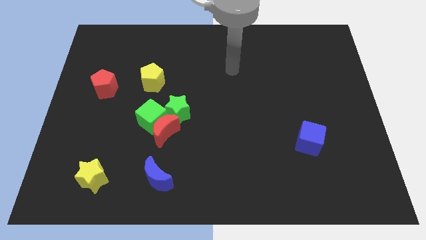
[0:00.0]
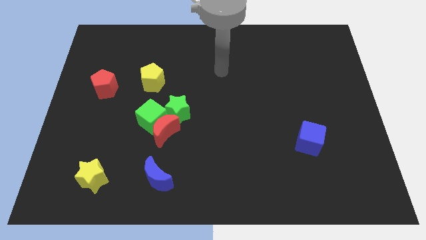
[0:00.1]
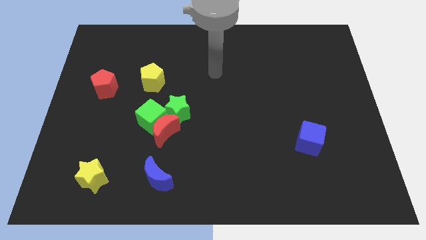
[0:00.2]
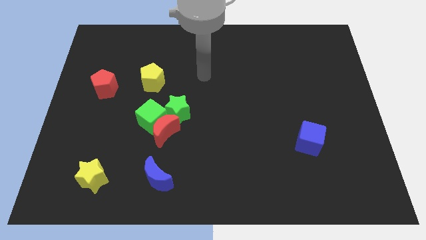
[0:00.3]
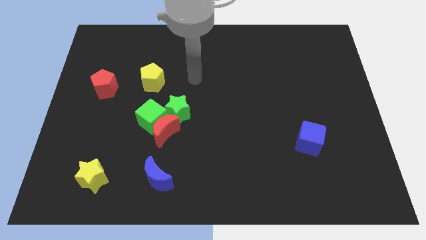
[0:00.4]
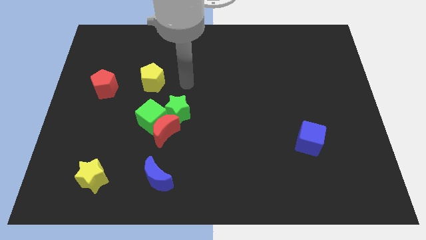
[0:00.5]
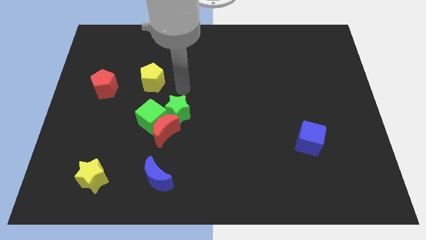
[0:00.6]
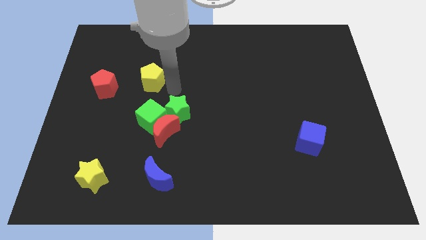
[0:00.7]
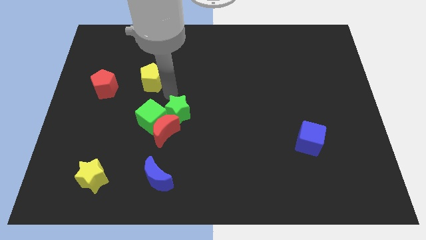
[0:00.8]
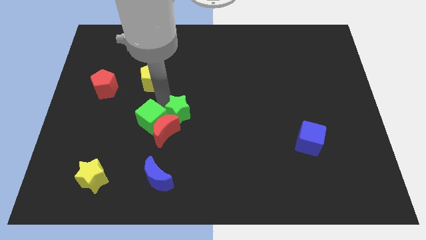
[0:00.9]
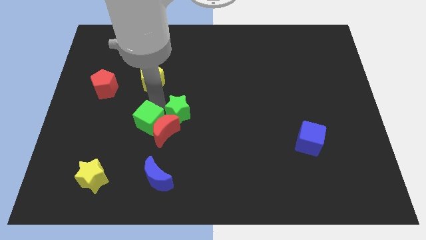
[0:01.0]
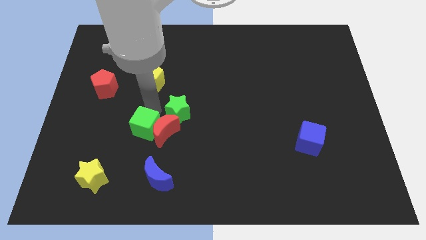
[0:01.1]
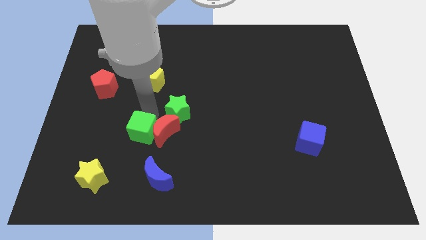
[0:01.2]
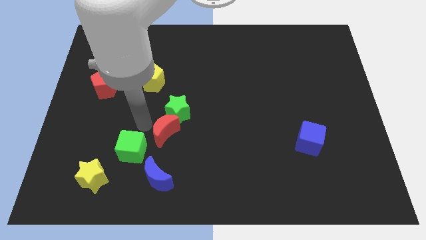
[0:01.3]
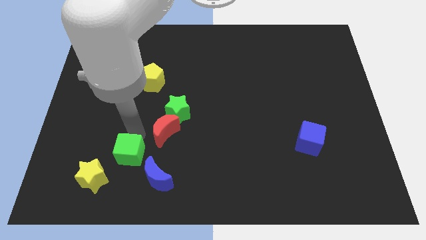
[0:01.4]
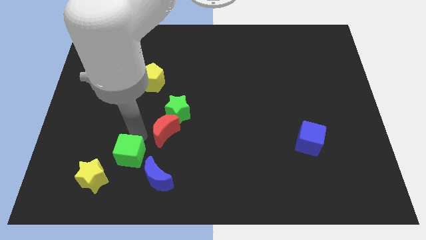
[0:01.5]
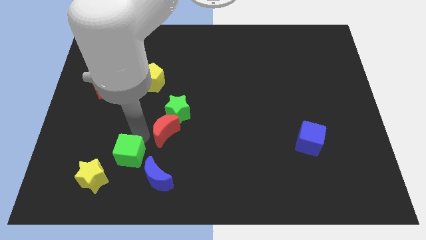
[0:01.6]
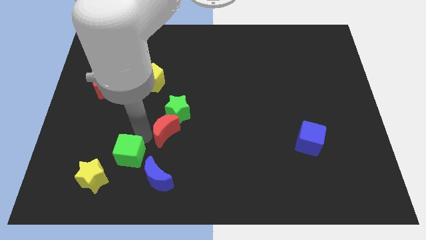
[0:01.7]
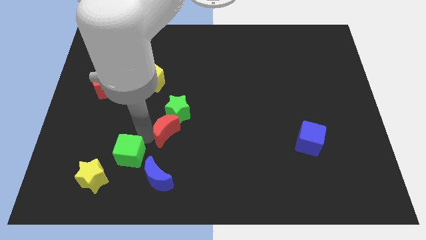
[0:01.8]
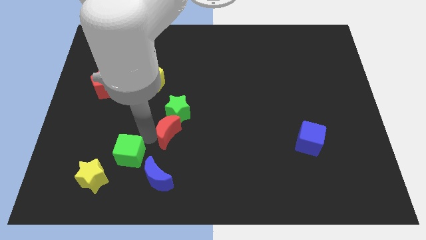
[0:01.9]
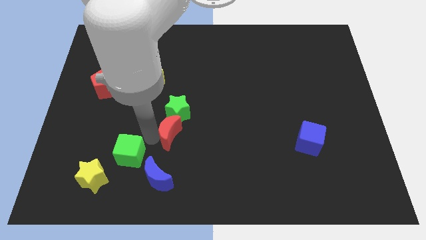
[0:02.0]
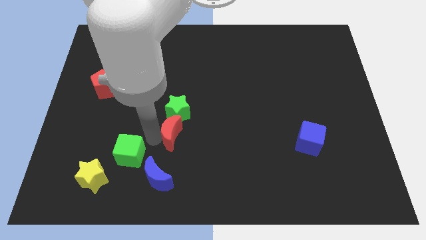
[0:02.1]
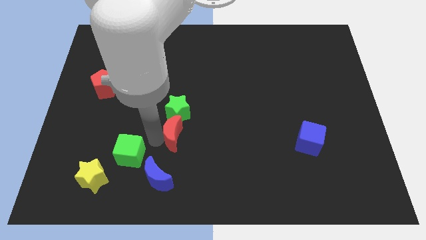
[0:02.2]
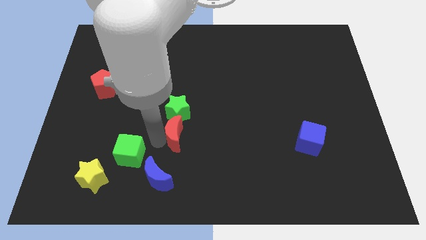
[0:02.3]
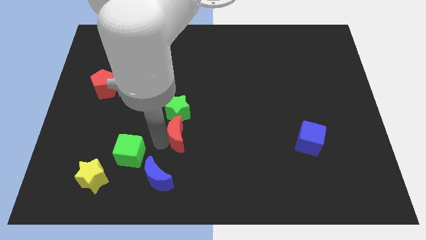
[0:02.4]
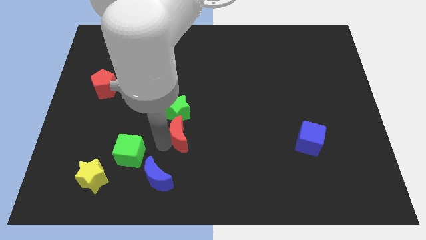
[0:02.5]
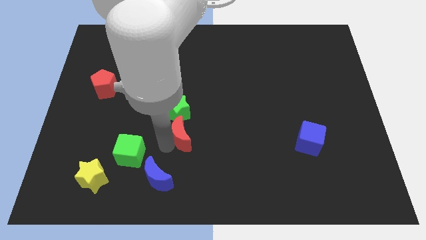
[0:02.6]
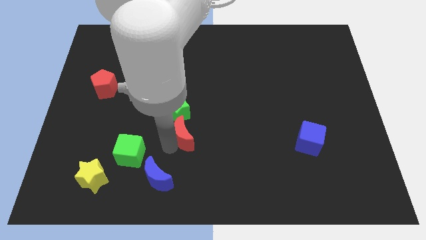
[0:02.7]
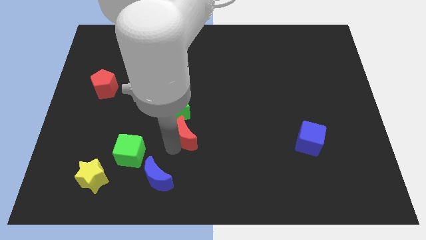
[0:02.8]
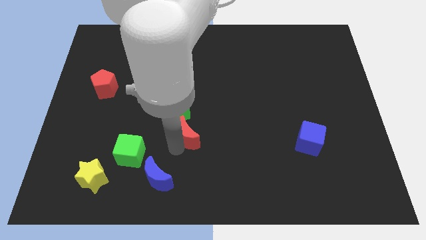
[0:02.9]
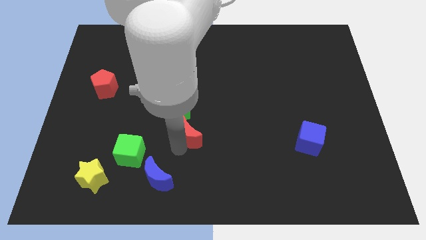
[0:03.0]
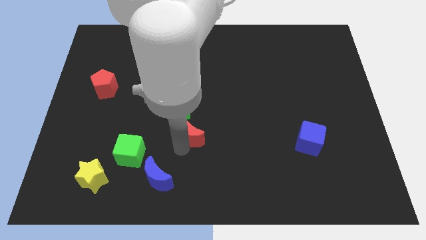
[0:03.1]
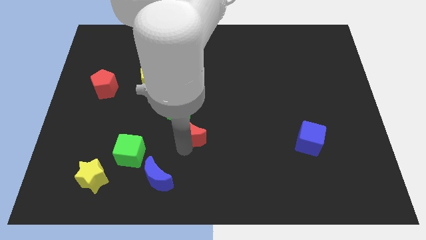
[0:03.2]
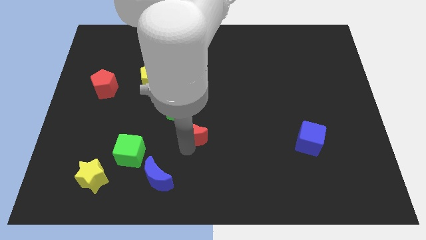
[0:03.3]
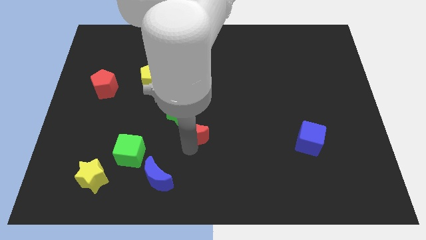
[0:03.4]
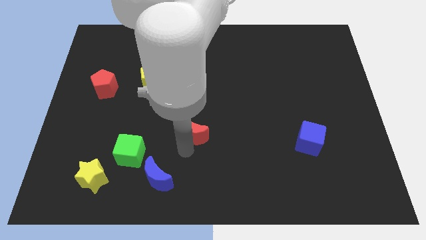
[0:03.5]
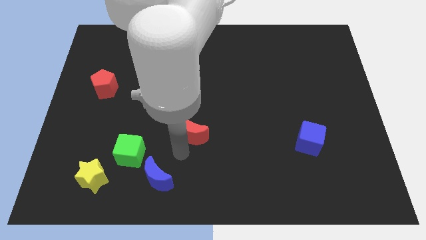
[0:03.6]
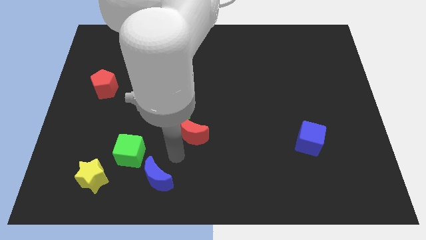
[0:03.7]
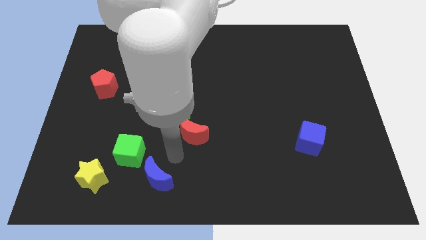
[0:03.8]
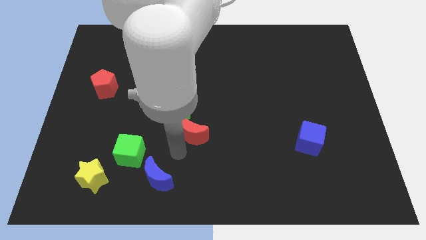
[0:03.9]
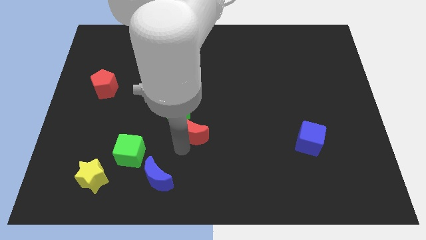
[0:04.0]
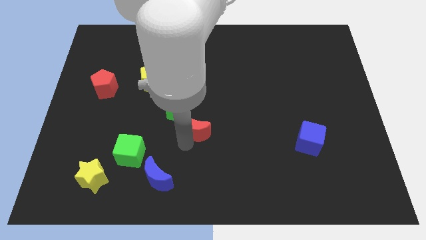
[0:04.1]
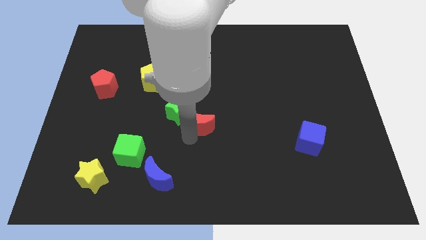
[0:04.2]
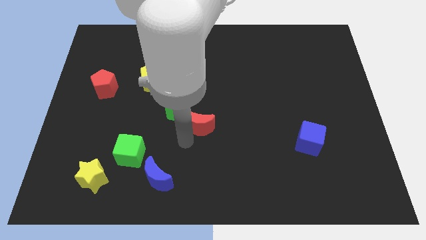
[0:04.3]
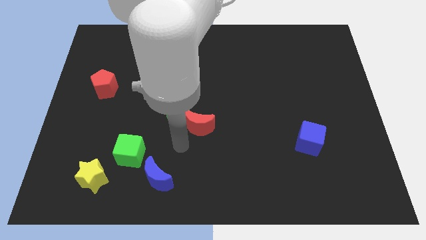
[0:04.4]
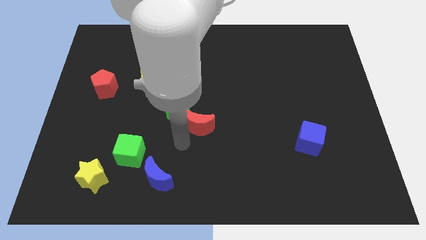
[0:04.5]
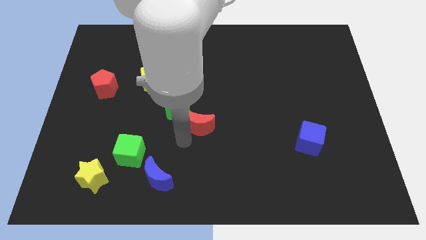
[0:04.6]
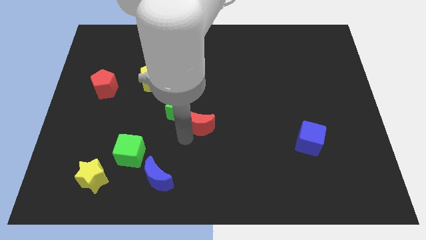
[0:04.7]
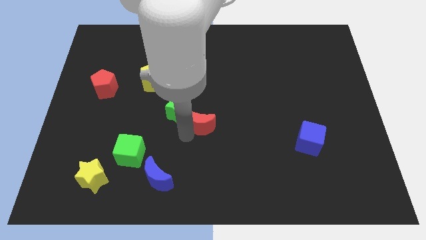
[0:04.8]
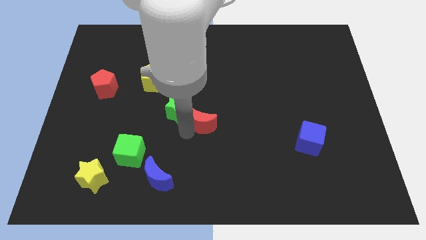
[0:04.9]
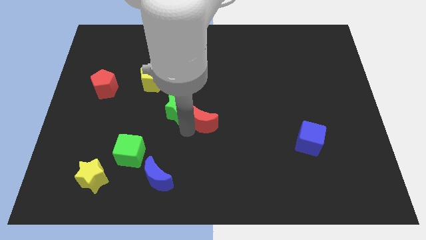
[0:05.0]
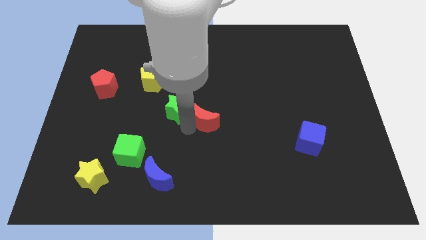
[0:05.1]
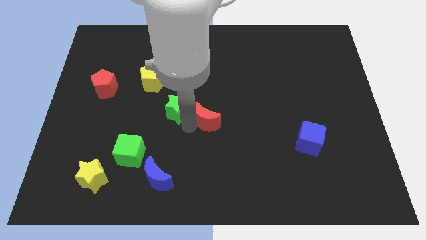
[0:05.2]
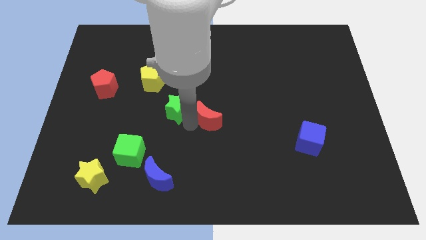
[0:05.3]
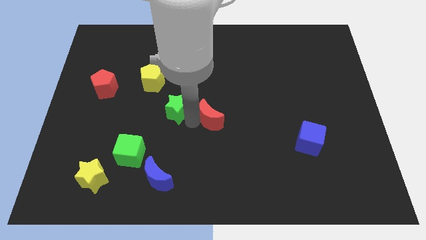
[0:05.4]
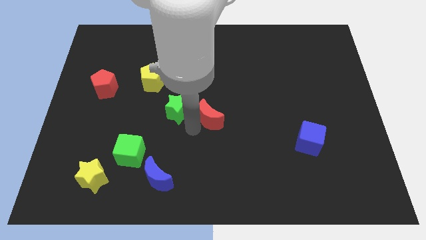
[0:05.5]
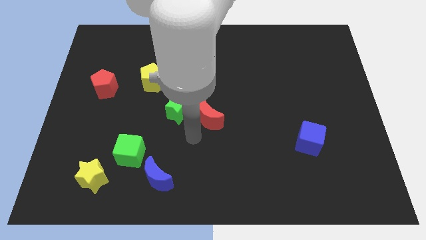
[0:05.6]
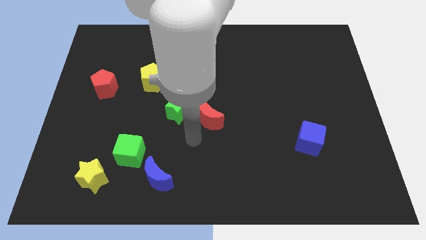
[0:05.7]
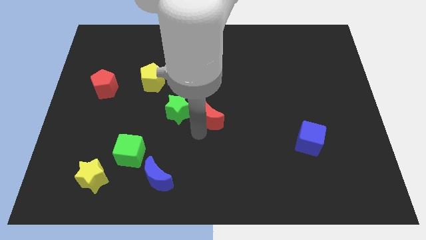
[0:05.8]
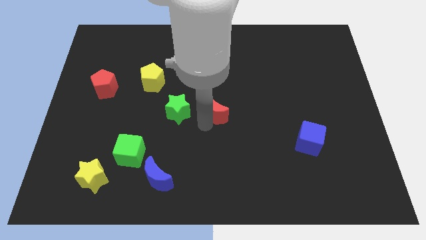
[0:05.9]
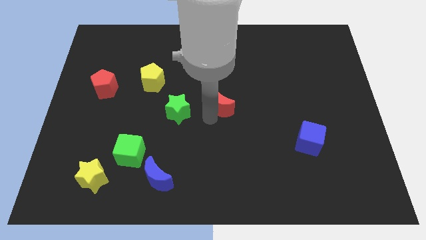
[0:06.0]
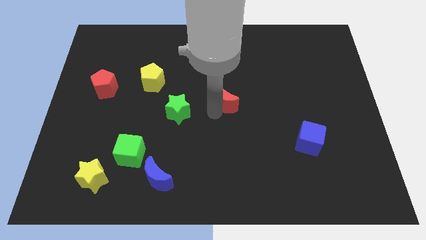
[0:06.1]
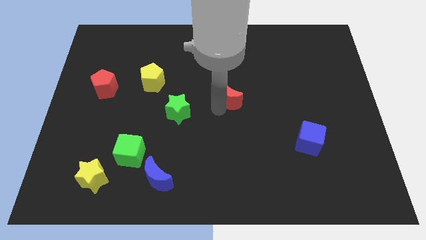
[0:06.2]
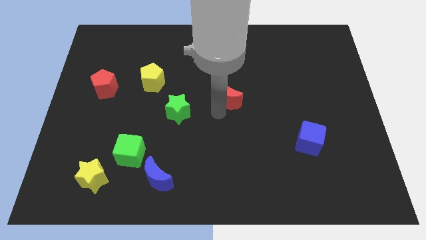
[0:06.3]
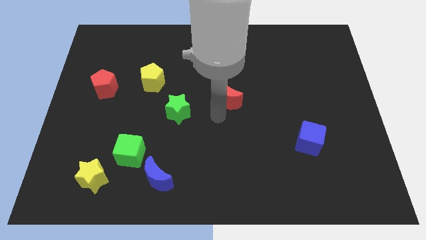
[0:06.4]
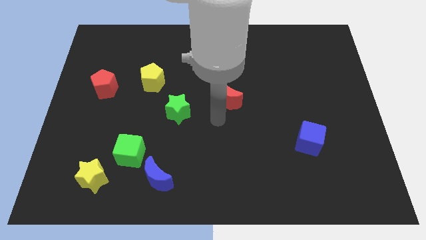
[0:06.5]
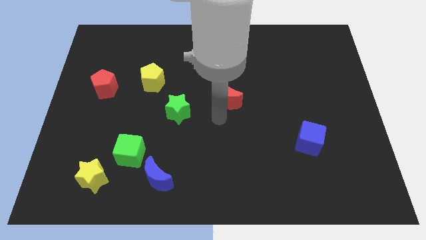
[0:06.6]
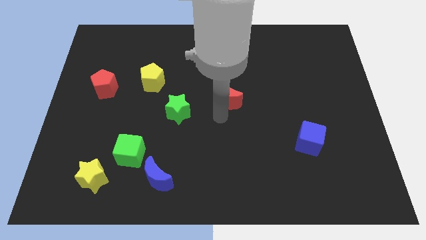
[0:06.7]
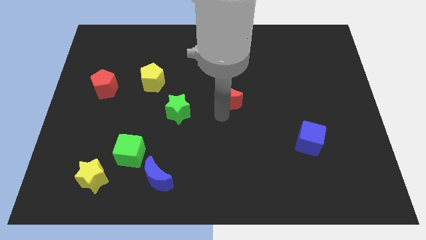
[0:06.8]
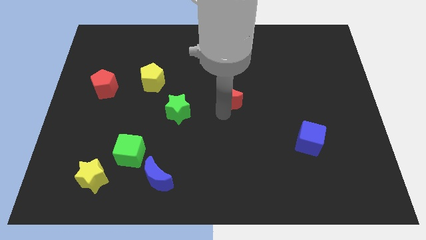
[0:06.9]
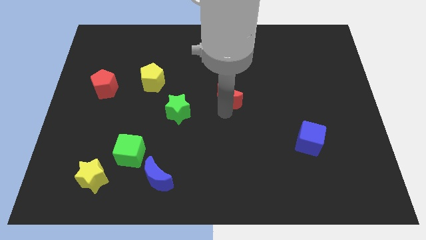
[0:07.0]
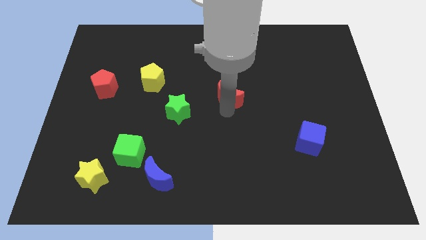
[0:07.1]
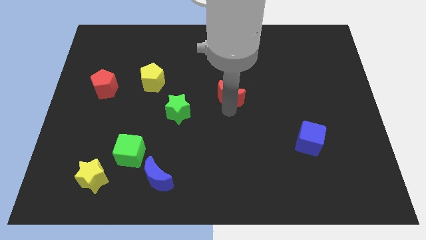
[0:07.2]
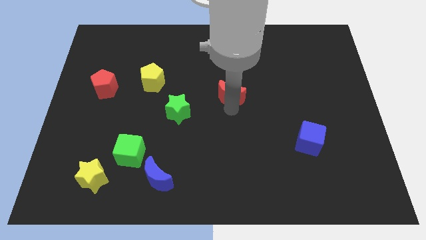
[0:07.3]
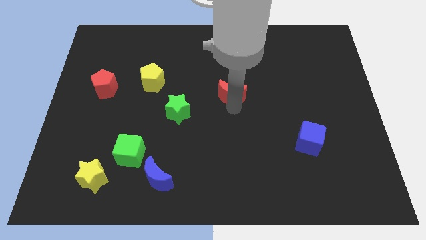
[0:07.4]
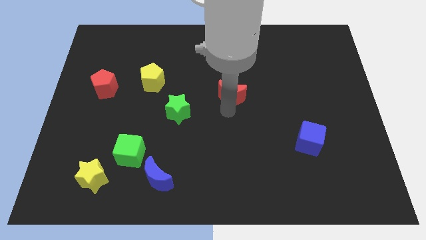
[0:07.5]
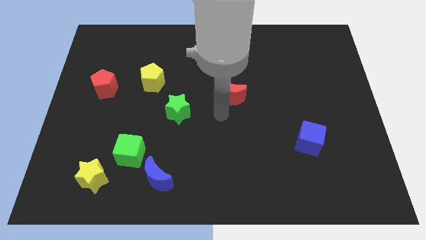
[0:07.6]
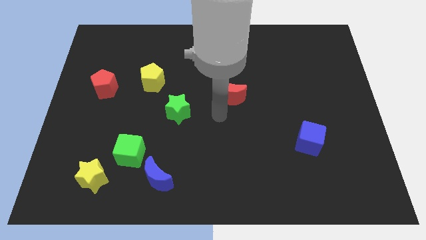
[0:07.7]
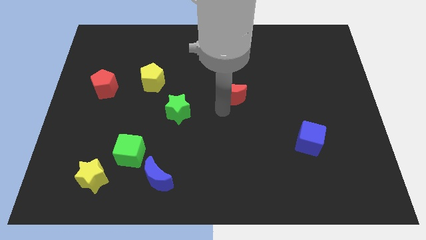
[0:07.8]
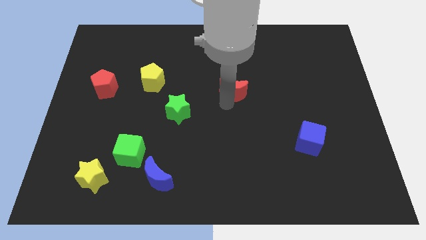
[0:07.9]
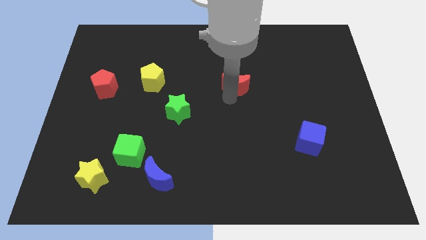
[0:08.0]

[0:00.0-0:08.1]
push the red moon up and to the right

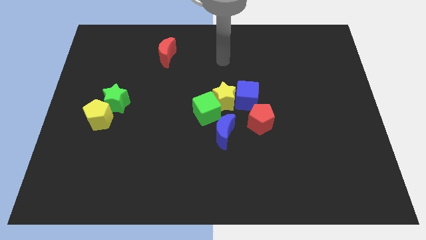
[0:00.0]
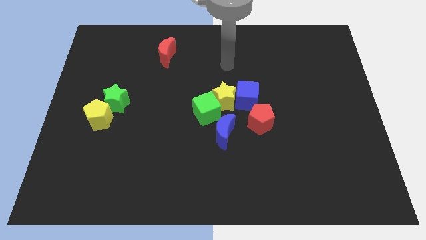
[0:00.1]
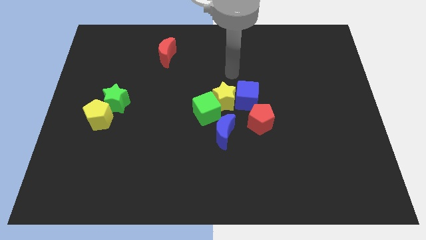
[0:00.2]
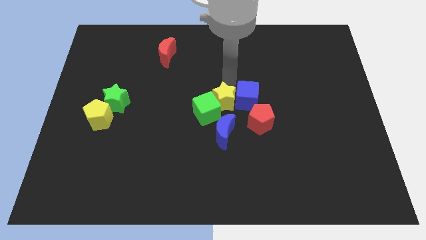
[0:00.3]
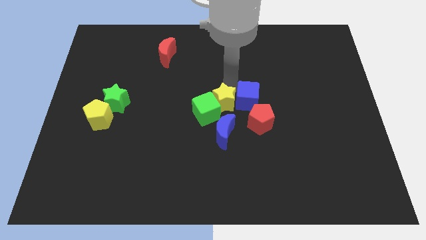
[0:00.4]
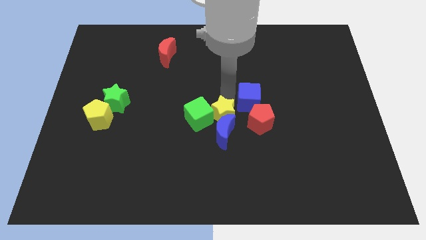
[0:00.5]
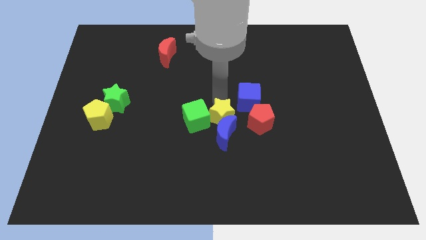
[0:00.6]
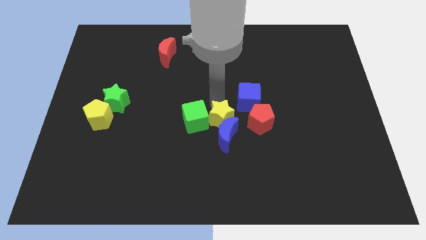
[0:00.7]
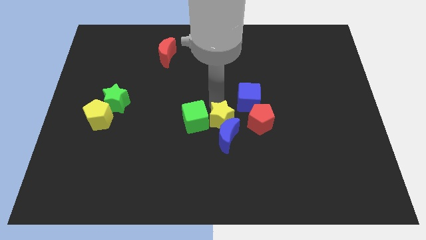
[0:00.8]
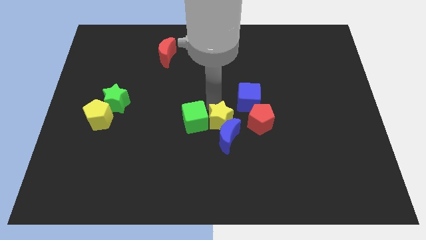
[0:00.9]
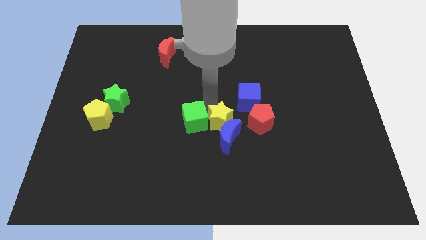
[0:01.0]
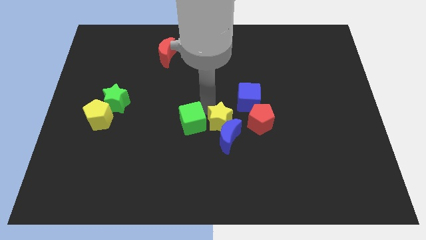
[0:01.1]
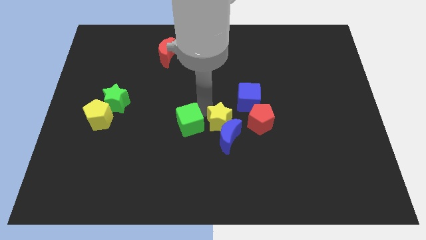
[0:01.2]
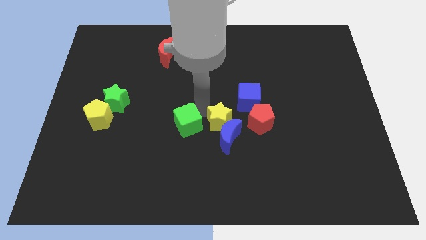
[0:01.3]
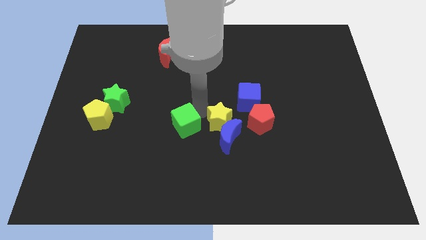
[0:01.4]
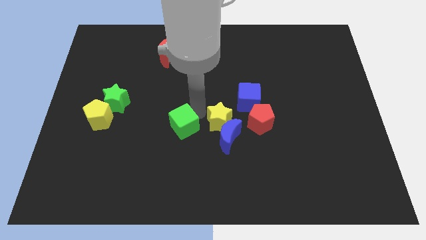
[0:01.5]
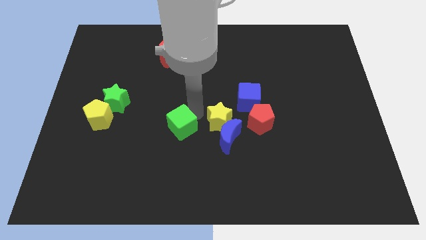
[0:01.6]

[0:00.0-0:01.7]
slide the green cube down and then to the left a little bit
